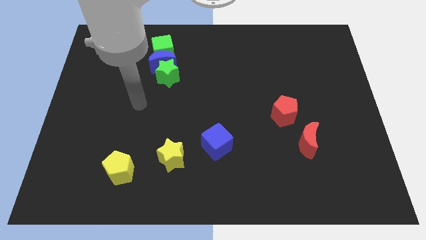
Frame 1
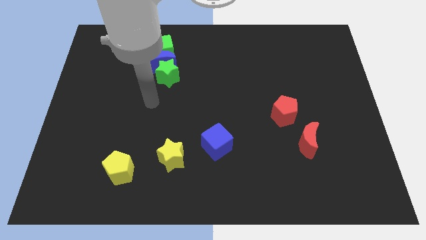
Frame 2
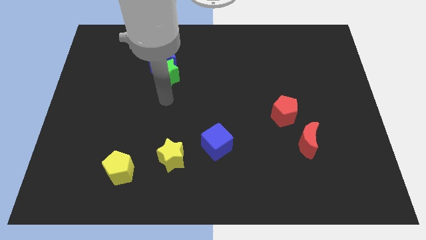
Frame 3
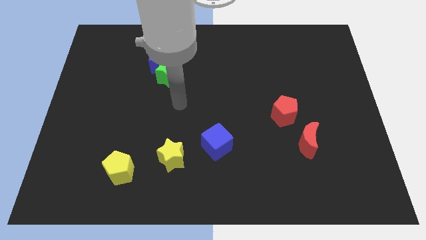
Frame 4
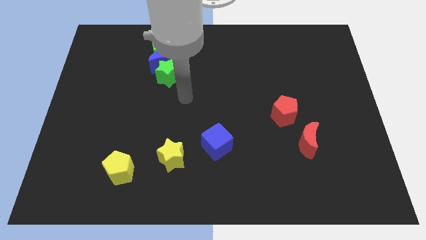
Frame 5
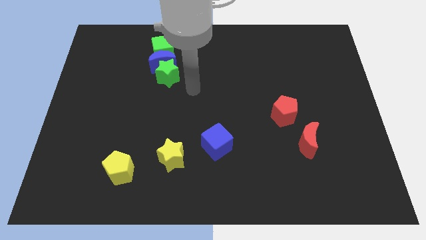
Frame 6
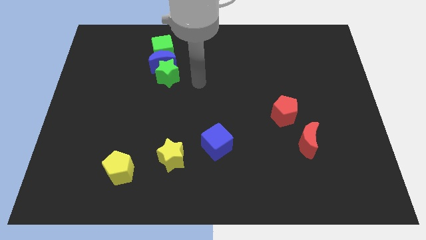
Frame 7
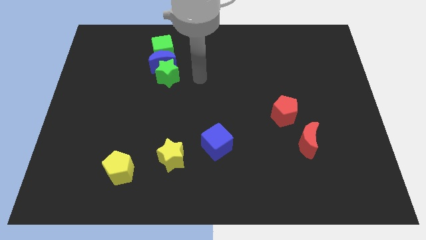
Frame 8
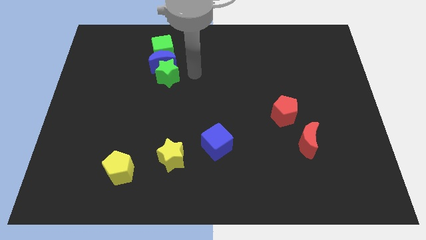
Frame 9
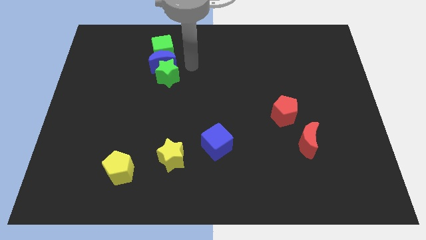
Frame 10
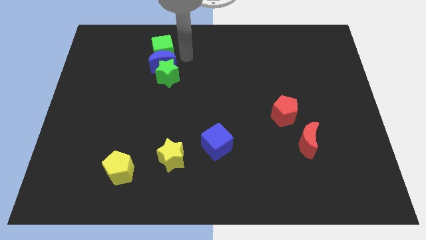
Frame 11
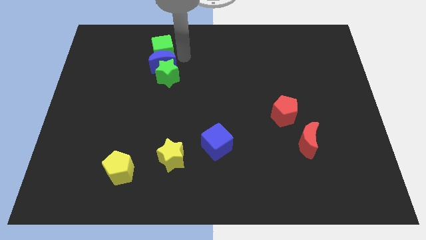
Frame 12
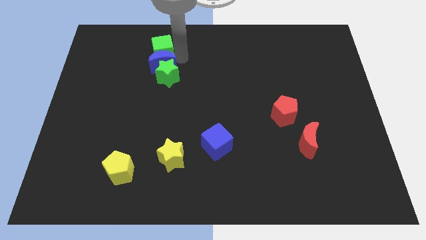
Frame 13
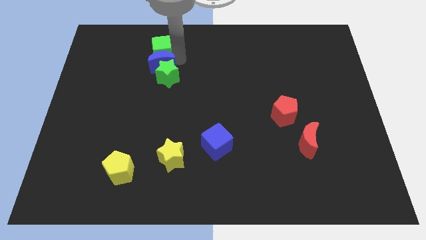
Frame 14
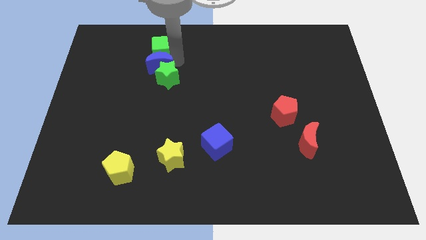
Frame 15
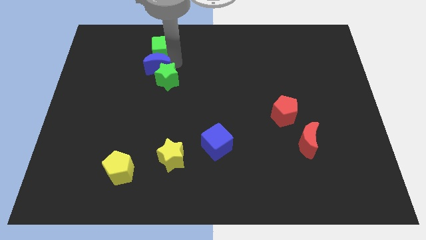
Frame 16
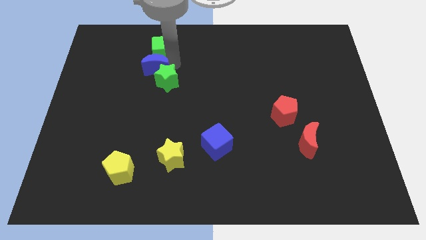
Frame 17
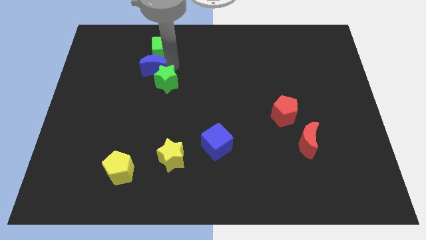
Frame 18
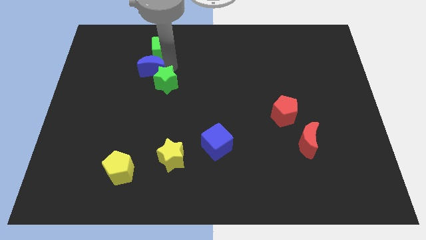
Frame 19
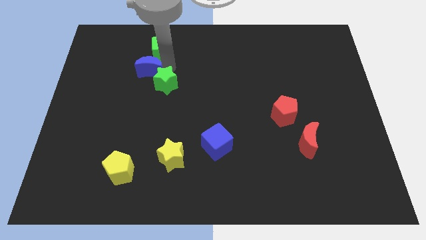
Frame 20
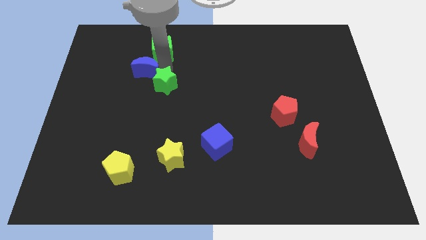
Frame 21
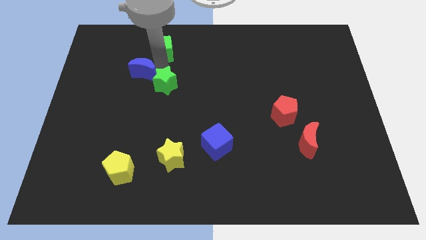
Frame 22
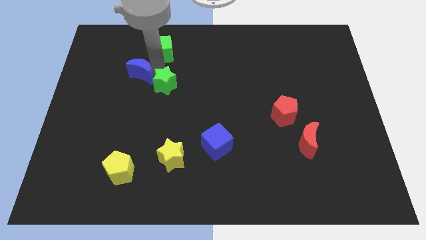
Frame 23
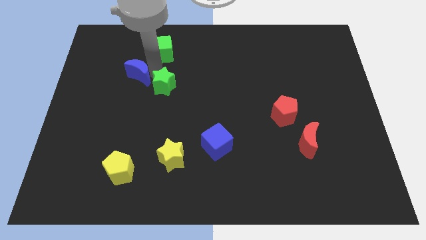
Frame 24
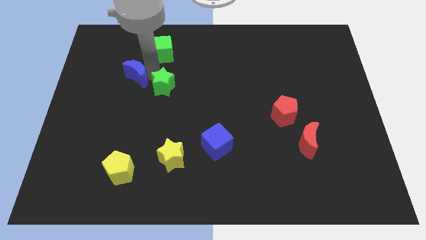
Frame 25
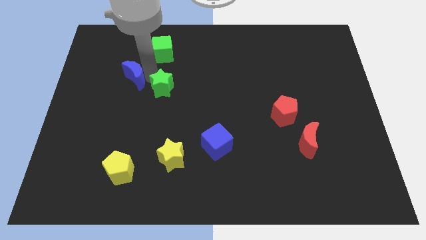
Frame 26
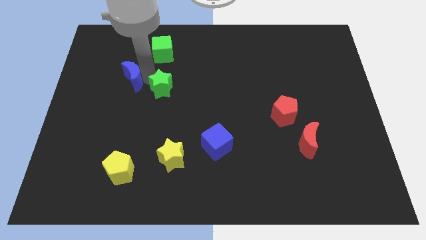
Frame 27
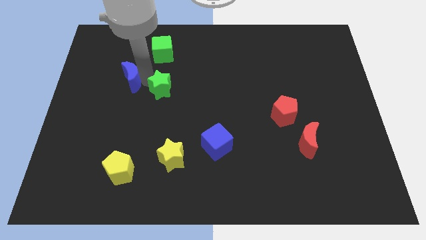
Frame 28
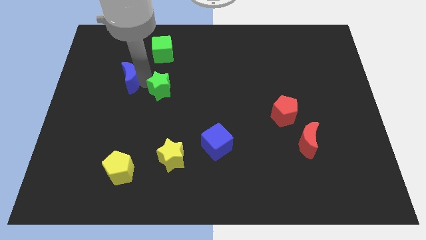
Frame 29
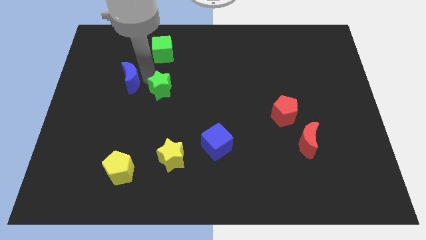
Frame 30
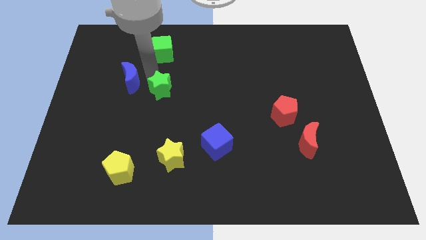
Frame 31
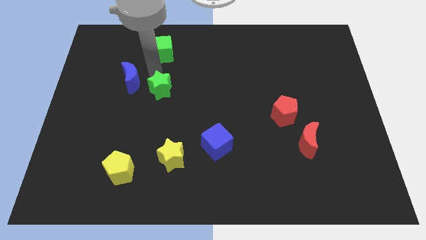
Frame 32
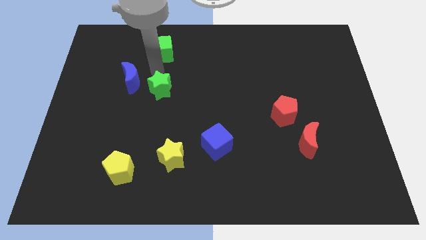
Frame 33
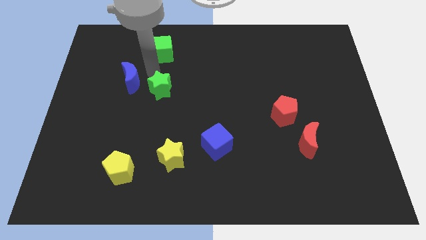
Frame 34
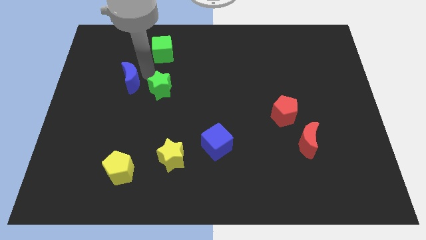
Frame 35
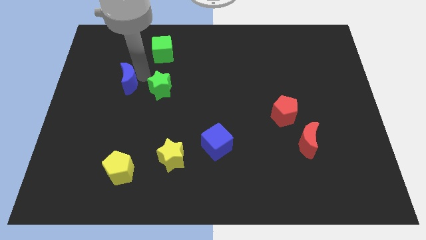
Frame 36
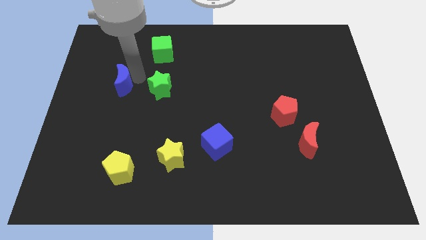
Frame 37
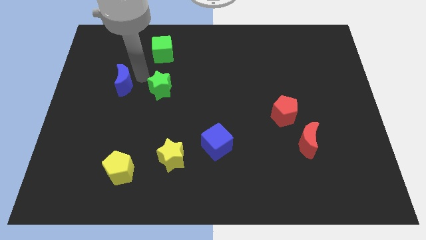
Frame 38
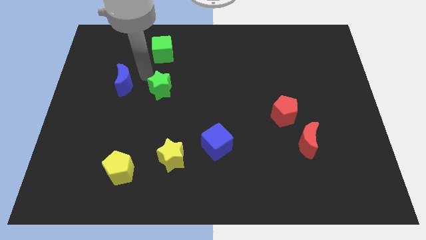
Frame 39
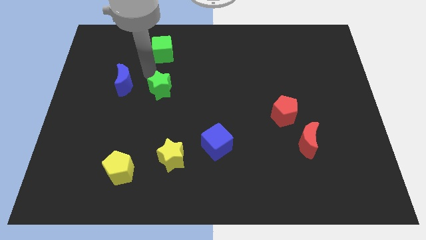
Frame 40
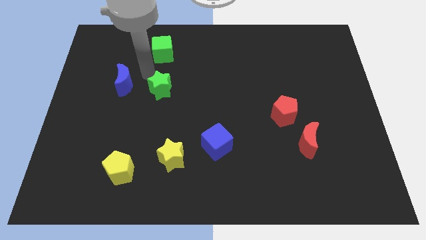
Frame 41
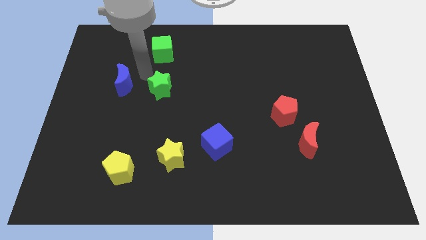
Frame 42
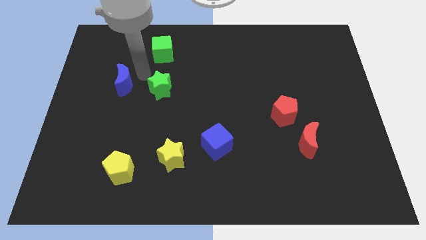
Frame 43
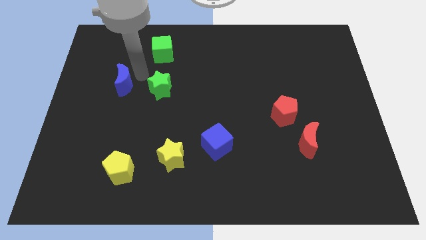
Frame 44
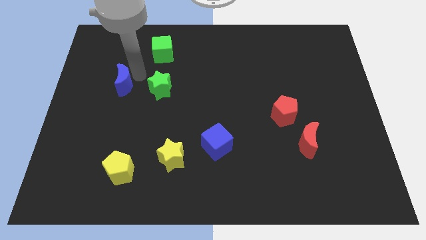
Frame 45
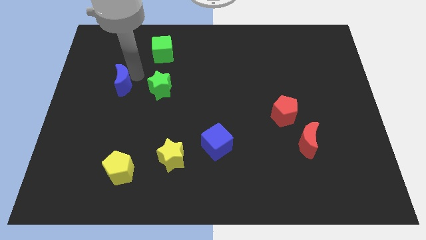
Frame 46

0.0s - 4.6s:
separate the blue moon from the green star and green cube

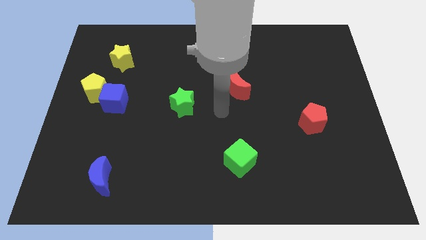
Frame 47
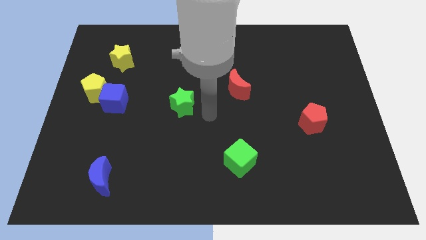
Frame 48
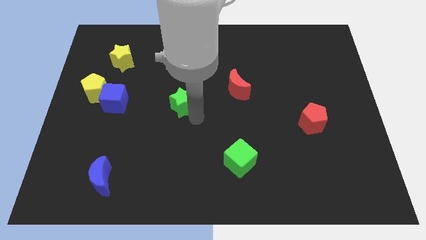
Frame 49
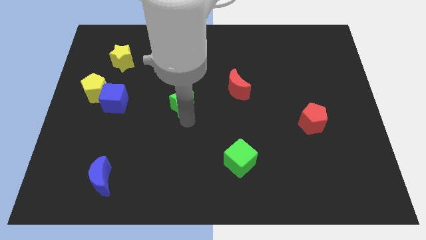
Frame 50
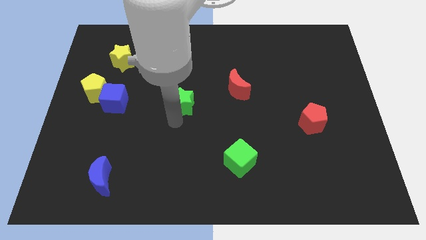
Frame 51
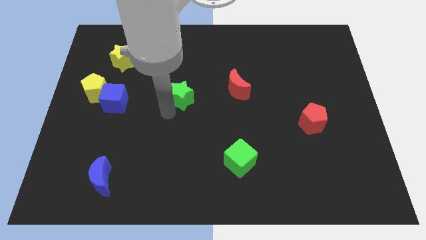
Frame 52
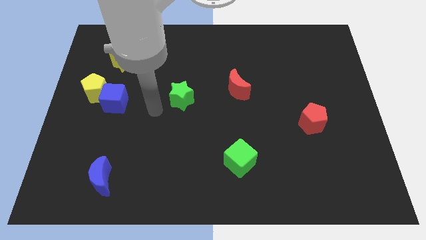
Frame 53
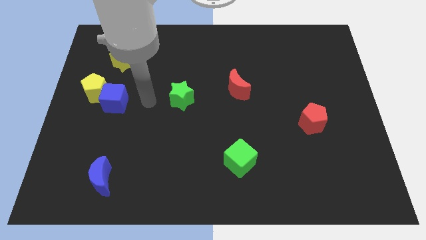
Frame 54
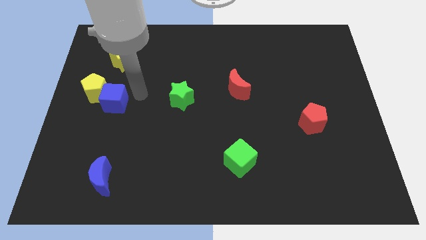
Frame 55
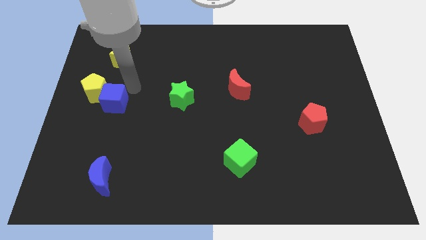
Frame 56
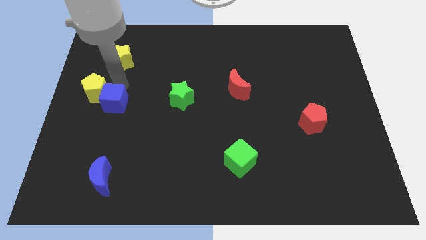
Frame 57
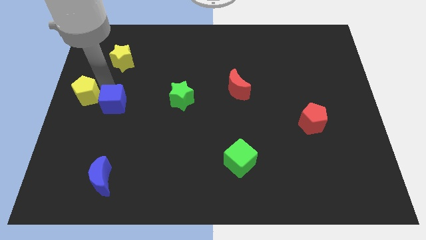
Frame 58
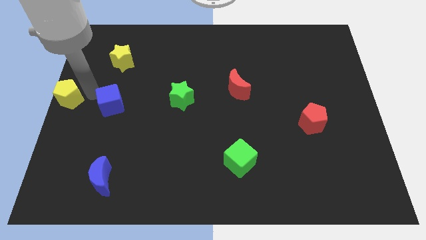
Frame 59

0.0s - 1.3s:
separate the blue cube from the yellow pentagon

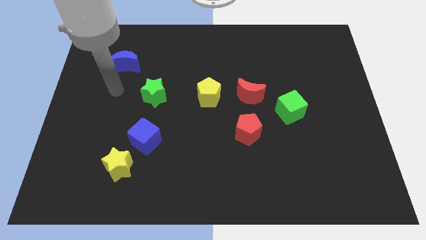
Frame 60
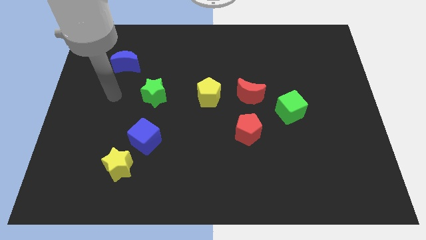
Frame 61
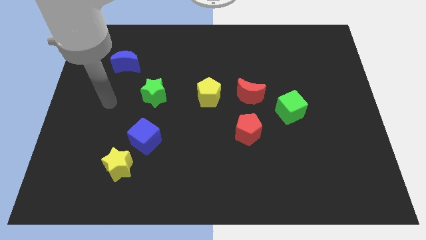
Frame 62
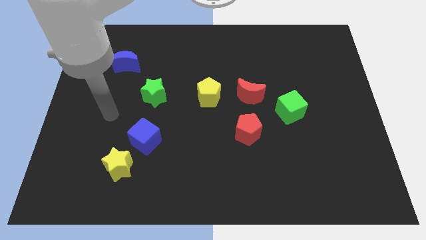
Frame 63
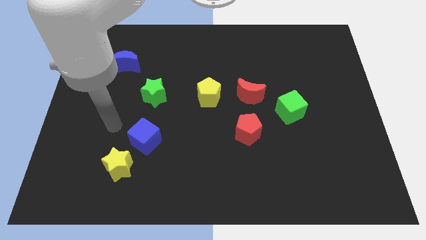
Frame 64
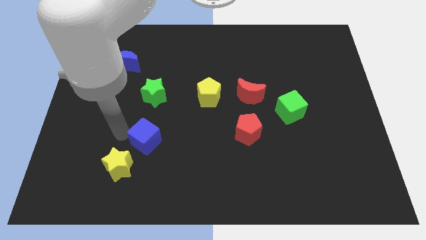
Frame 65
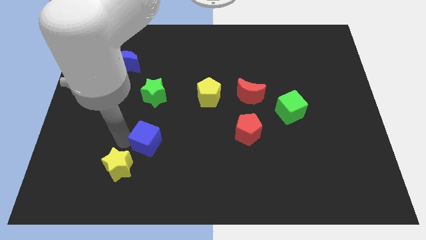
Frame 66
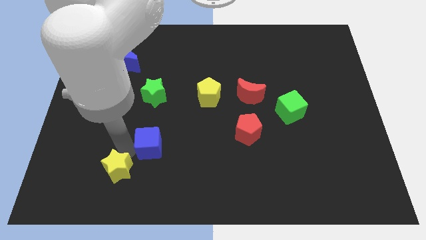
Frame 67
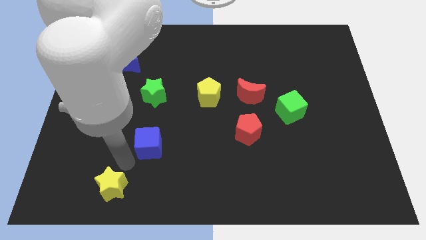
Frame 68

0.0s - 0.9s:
pull the blue cube apart from the yellow star

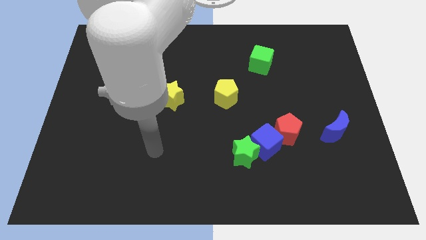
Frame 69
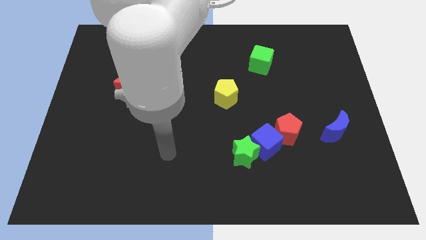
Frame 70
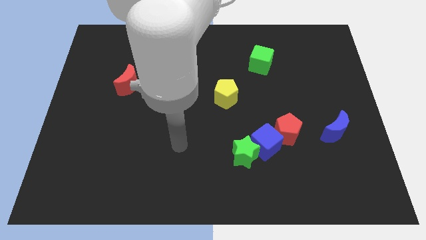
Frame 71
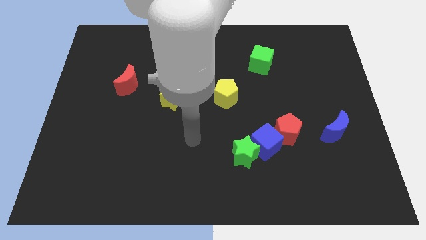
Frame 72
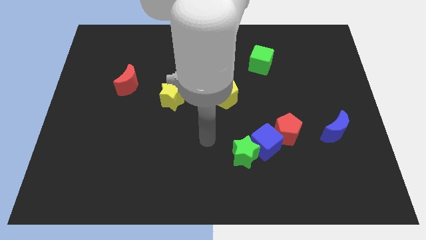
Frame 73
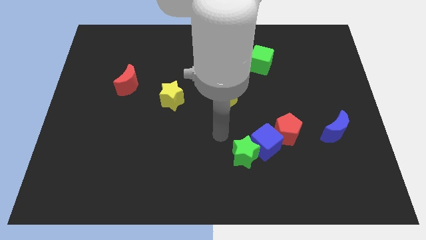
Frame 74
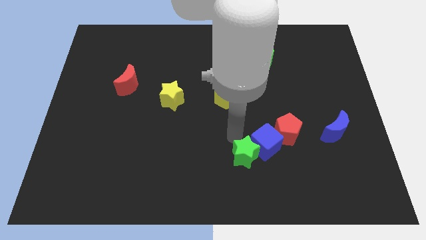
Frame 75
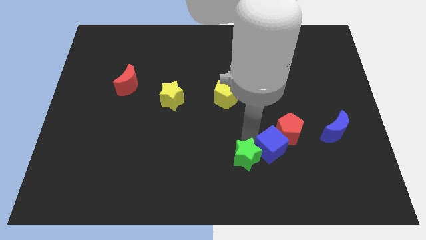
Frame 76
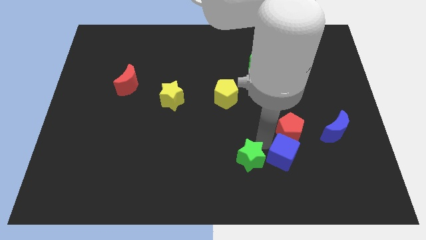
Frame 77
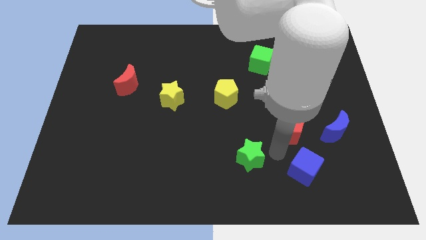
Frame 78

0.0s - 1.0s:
move the green star away from the blue cube

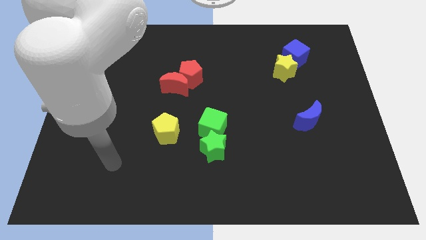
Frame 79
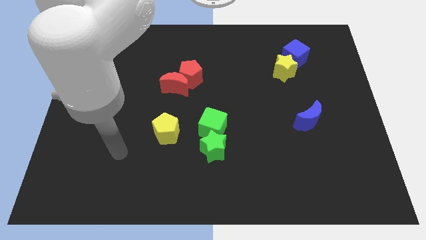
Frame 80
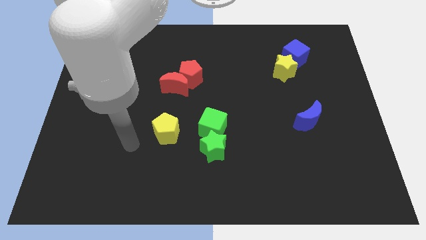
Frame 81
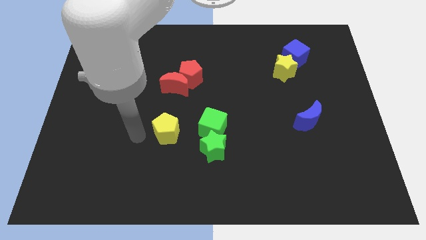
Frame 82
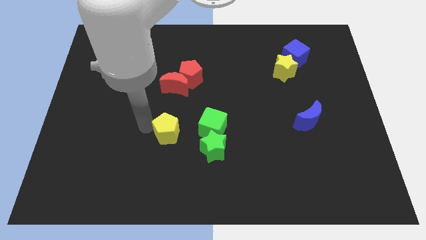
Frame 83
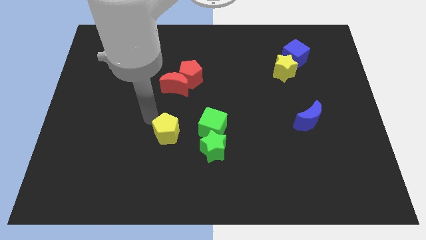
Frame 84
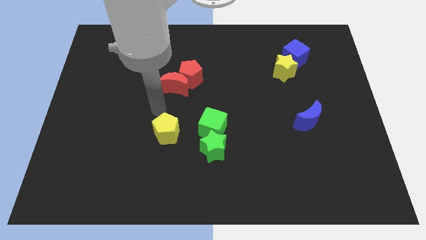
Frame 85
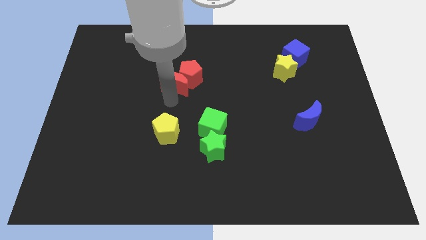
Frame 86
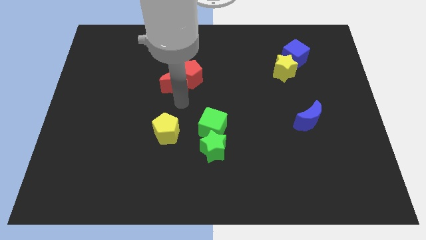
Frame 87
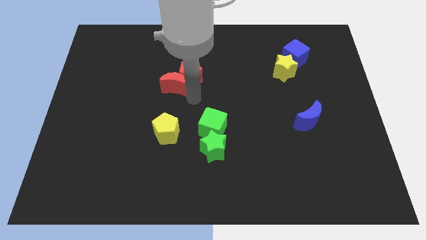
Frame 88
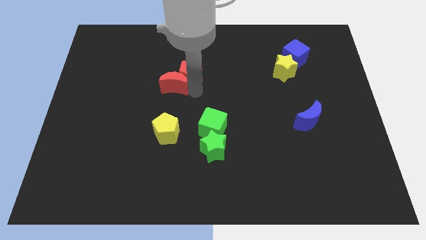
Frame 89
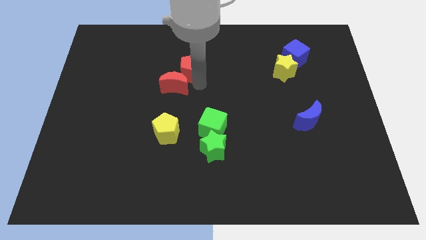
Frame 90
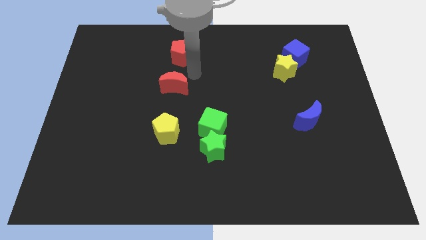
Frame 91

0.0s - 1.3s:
separate the red moon from the red pentagon

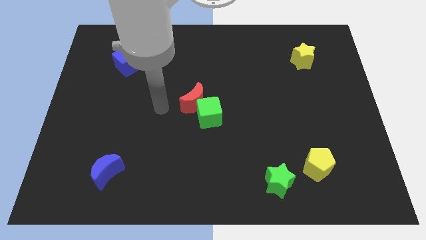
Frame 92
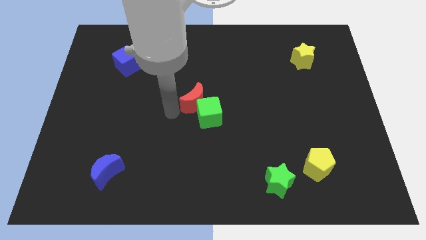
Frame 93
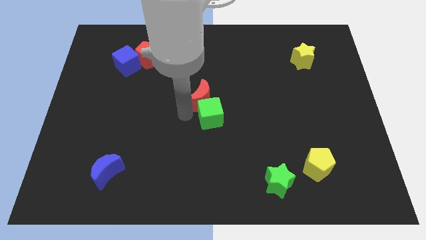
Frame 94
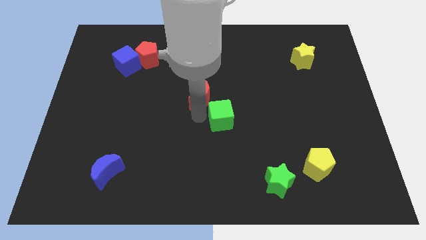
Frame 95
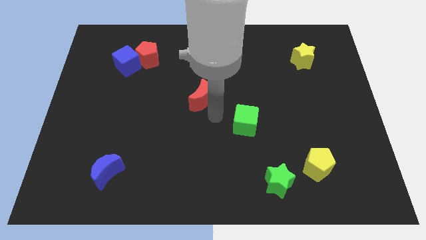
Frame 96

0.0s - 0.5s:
move the red moon away from the green cube
